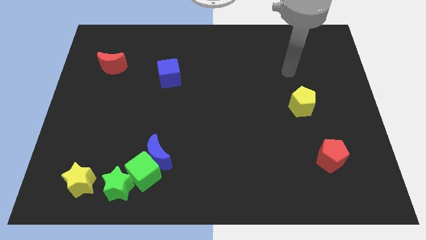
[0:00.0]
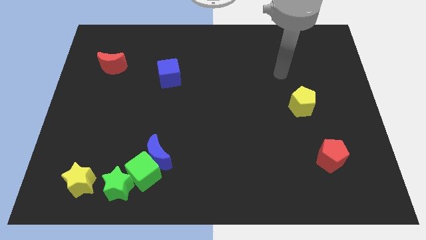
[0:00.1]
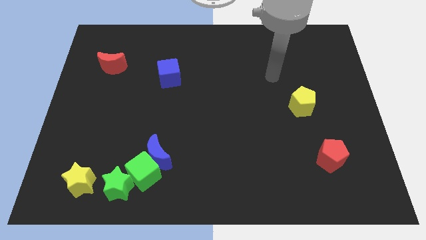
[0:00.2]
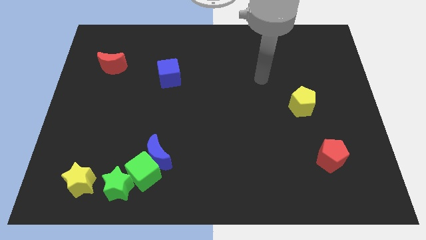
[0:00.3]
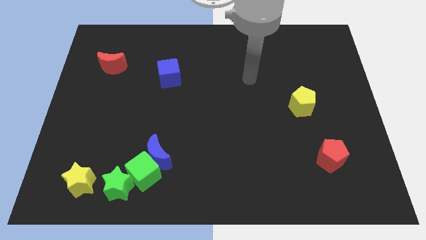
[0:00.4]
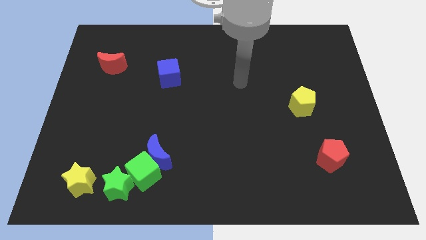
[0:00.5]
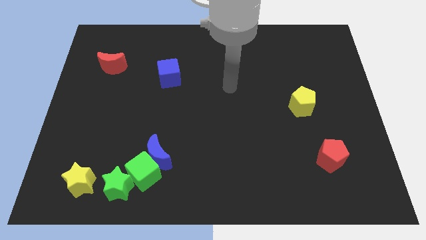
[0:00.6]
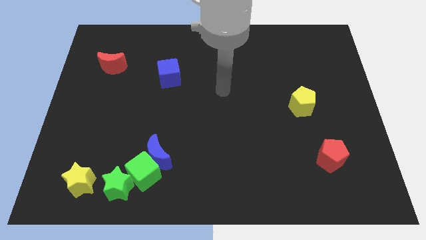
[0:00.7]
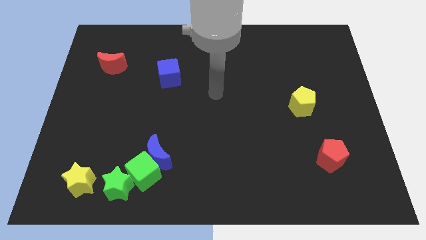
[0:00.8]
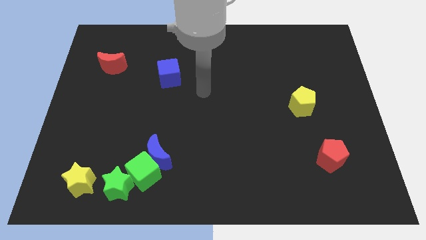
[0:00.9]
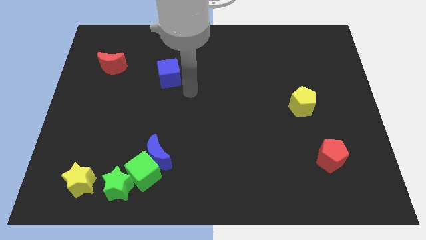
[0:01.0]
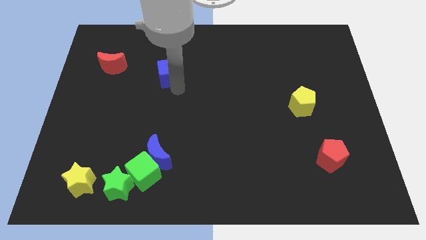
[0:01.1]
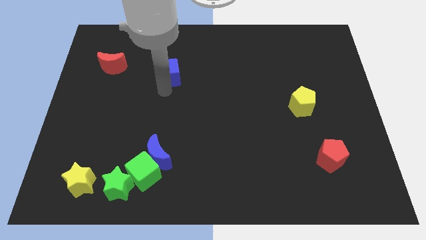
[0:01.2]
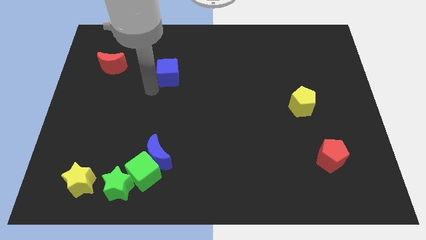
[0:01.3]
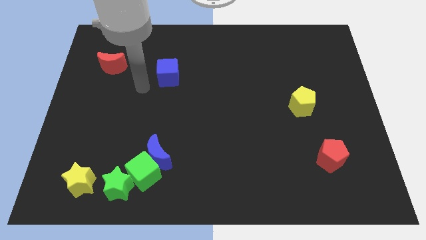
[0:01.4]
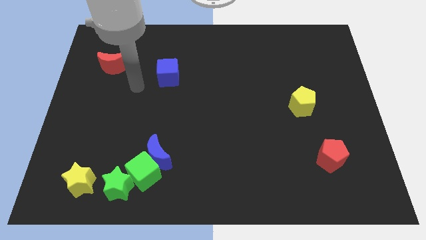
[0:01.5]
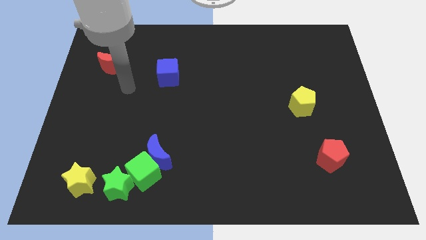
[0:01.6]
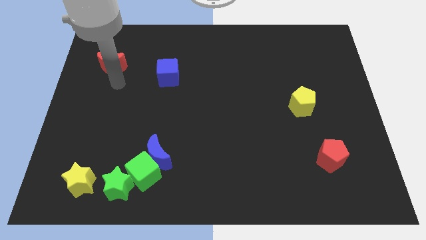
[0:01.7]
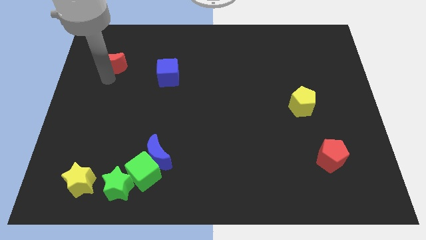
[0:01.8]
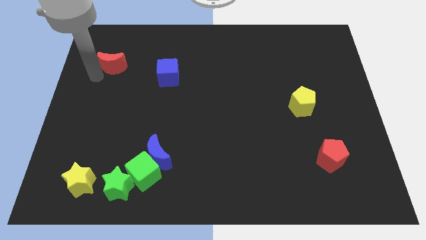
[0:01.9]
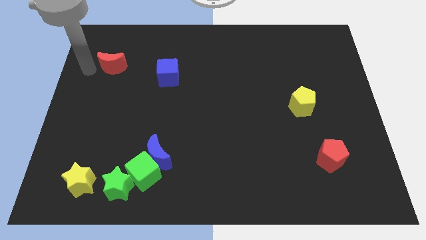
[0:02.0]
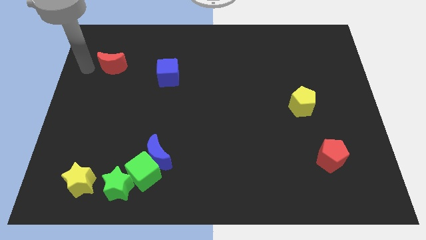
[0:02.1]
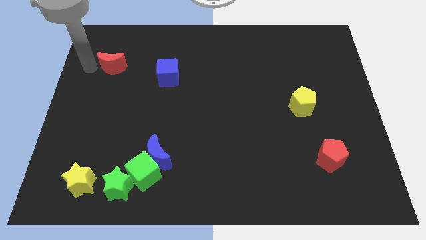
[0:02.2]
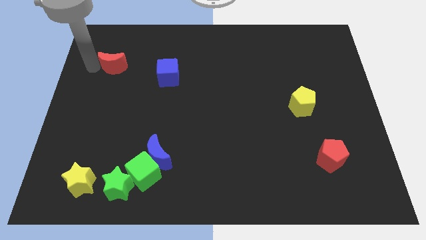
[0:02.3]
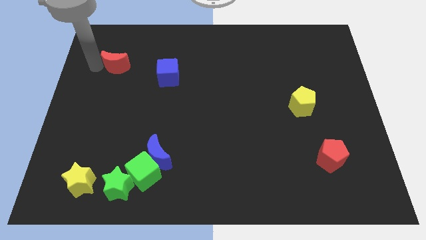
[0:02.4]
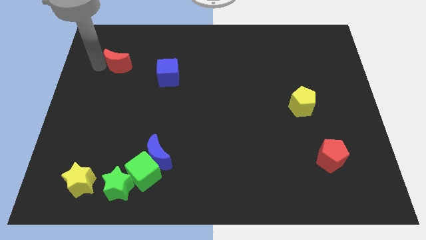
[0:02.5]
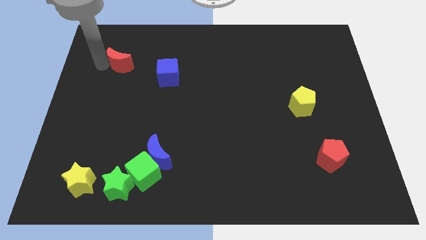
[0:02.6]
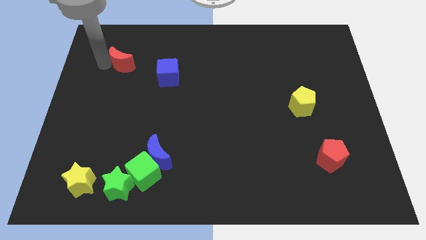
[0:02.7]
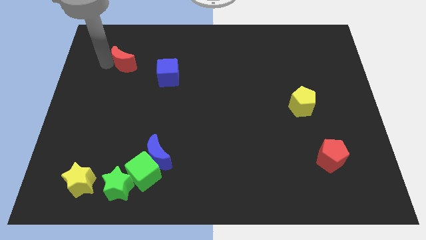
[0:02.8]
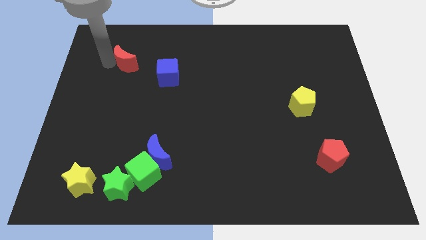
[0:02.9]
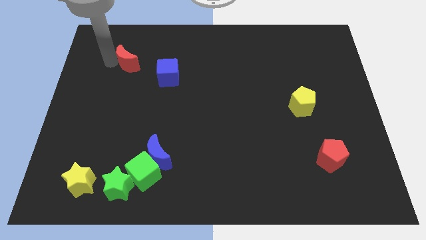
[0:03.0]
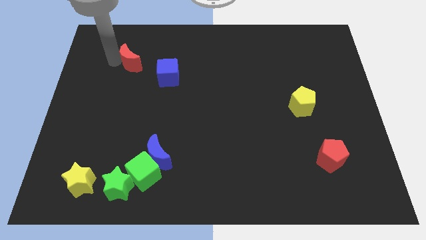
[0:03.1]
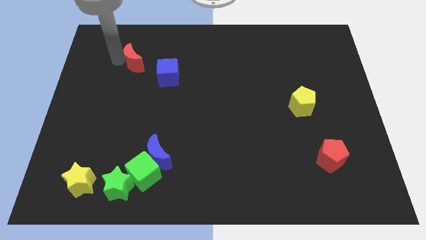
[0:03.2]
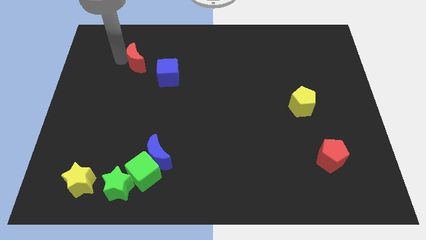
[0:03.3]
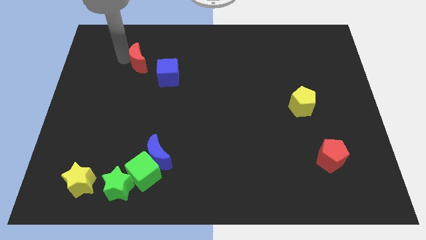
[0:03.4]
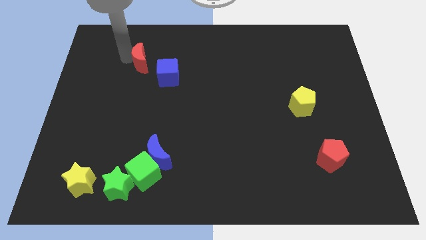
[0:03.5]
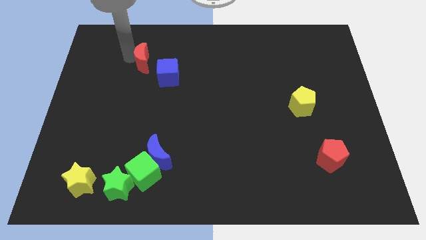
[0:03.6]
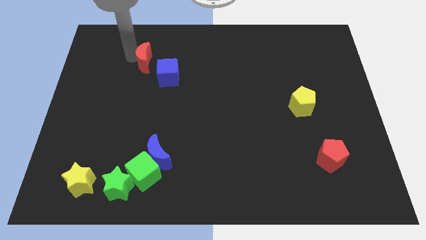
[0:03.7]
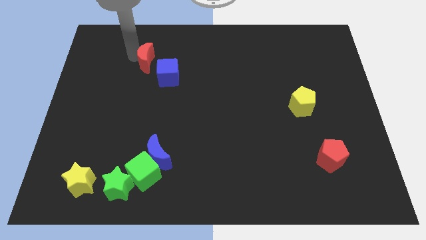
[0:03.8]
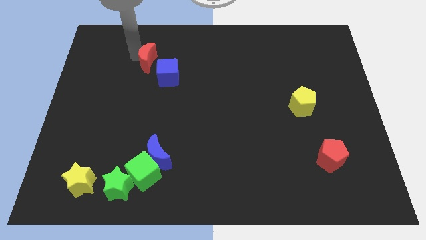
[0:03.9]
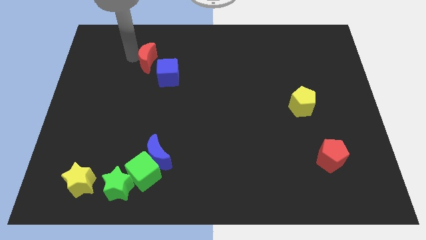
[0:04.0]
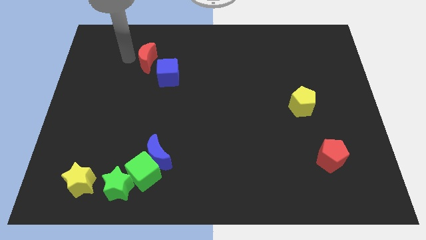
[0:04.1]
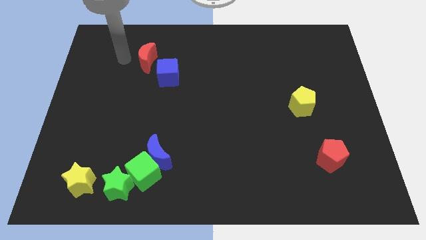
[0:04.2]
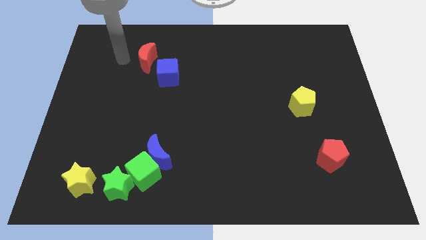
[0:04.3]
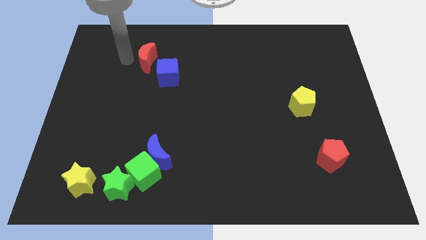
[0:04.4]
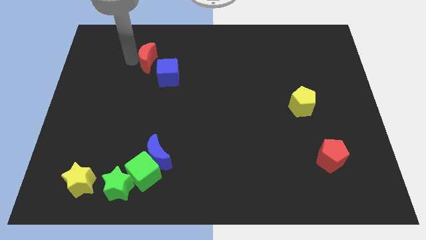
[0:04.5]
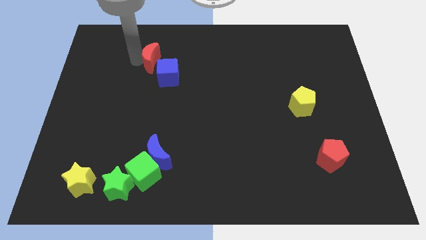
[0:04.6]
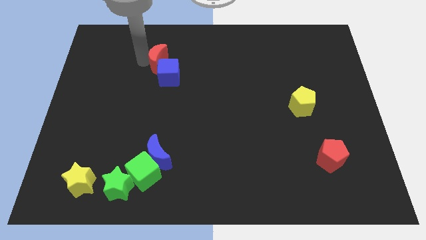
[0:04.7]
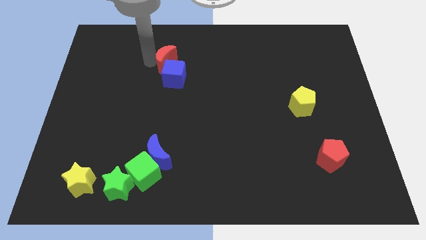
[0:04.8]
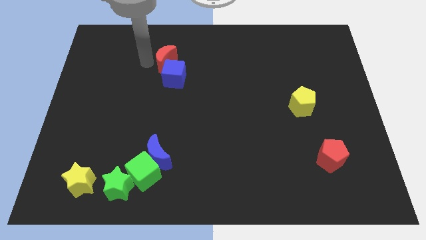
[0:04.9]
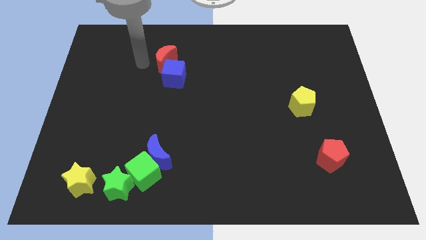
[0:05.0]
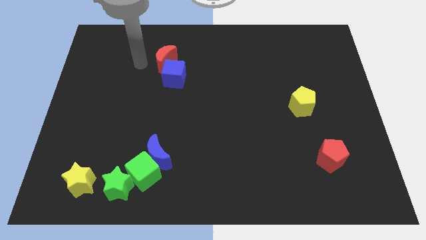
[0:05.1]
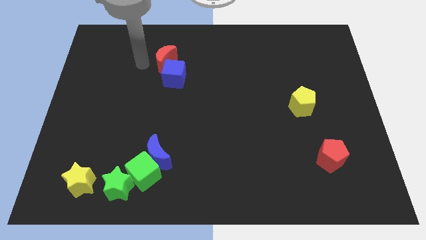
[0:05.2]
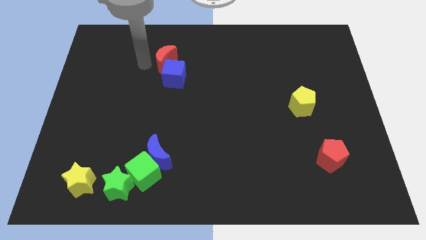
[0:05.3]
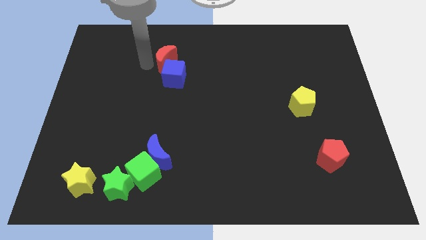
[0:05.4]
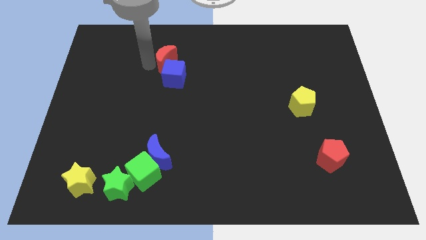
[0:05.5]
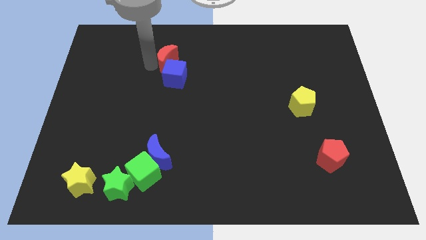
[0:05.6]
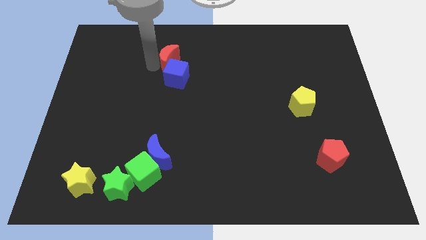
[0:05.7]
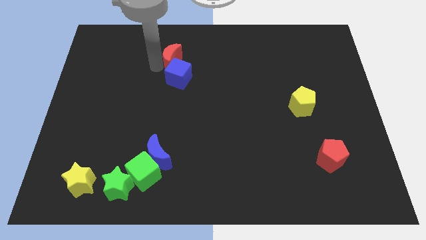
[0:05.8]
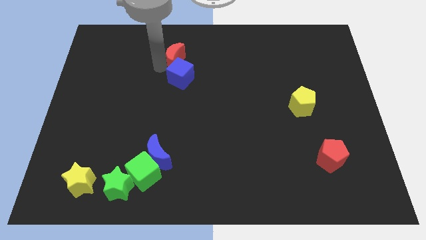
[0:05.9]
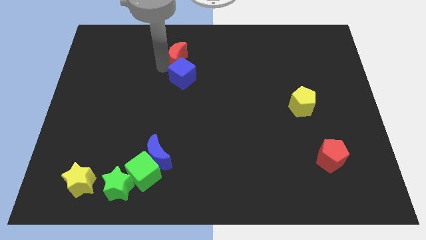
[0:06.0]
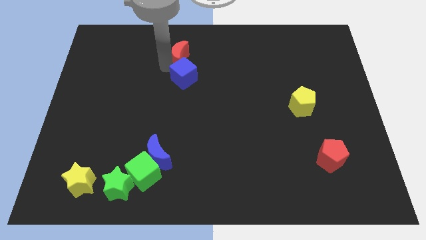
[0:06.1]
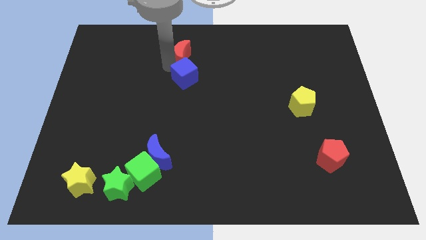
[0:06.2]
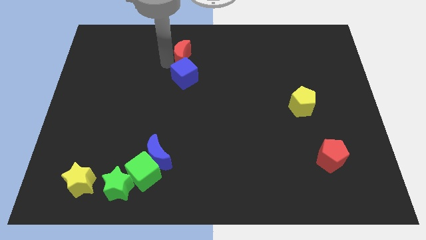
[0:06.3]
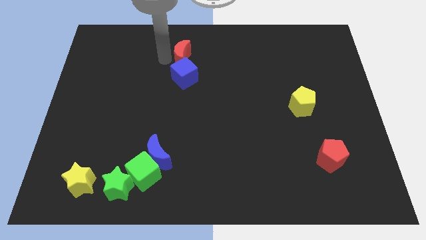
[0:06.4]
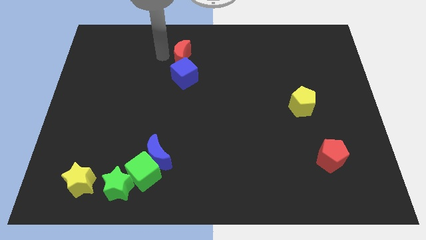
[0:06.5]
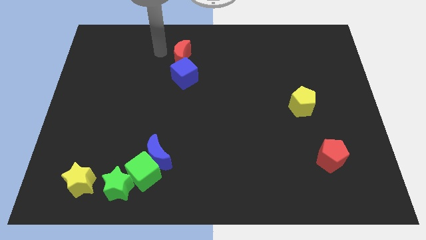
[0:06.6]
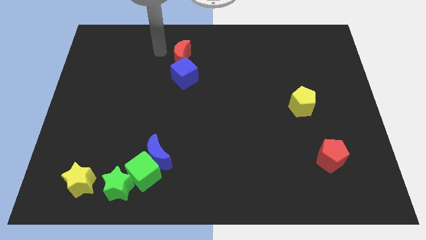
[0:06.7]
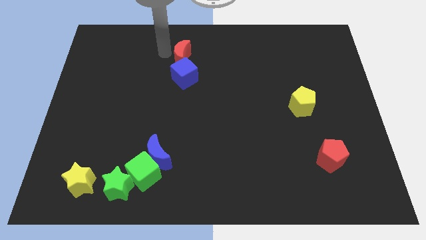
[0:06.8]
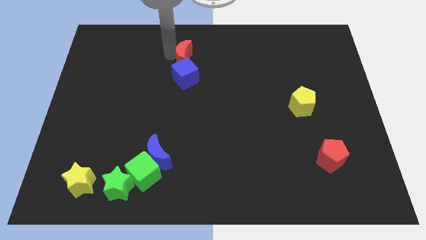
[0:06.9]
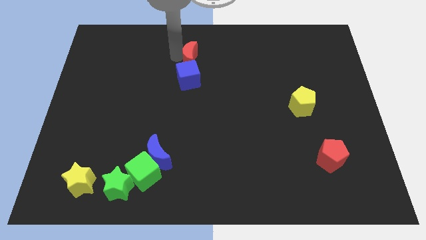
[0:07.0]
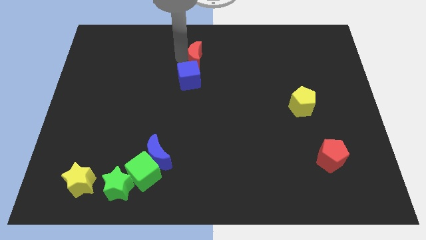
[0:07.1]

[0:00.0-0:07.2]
push the red moon right

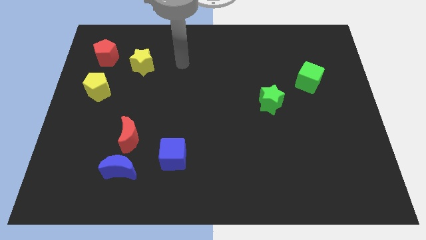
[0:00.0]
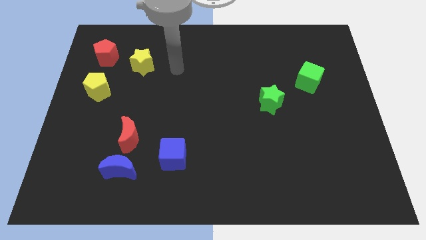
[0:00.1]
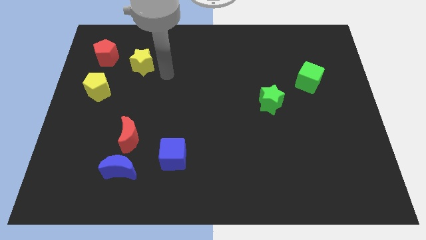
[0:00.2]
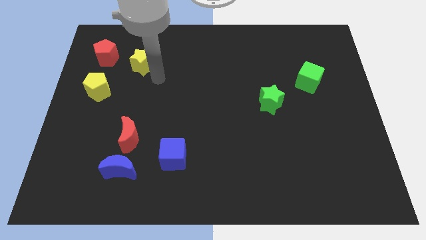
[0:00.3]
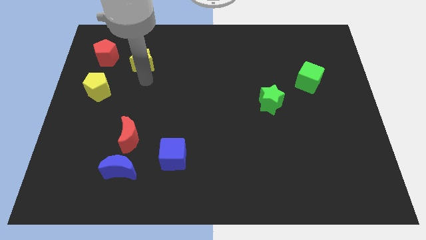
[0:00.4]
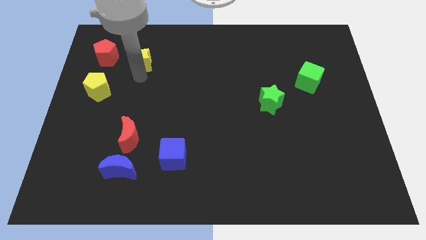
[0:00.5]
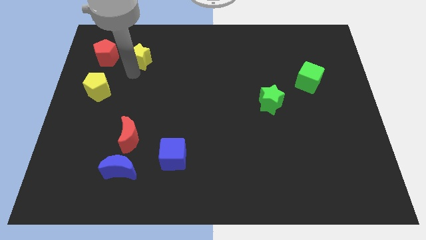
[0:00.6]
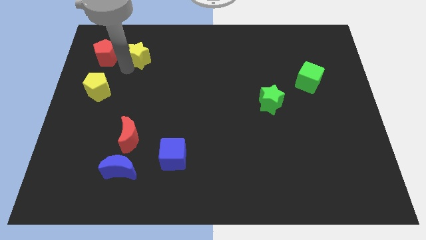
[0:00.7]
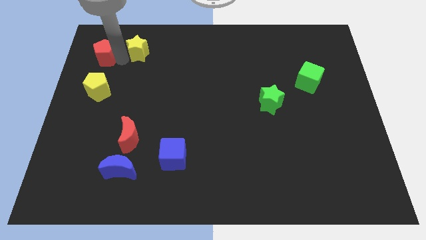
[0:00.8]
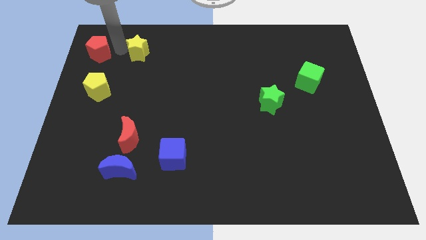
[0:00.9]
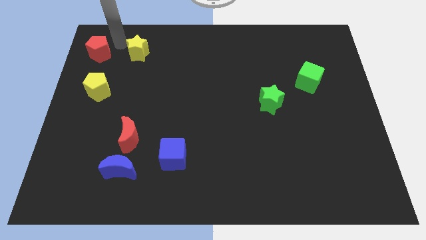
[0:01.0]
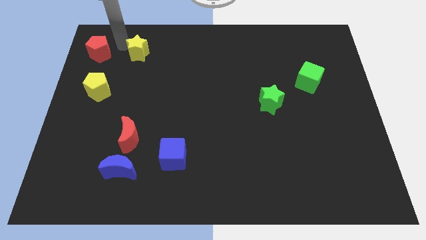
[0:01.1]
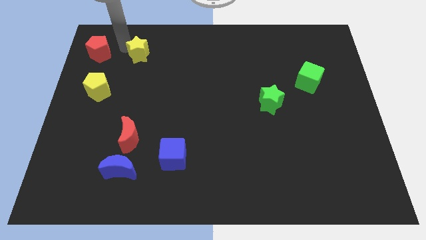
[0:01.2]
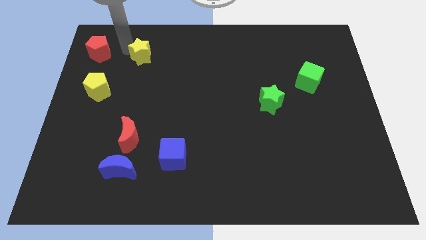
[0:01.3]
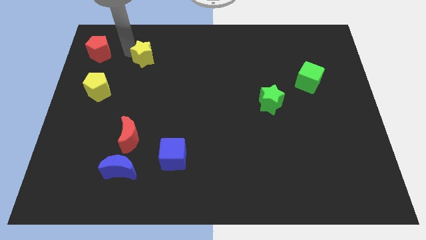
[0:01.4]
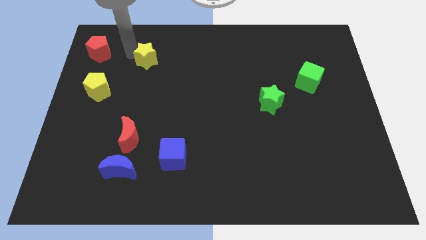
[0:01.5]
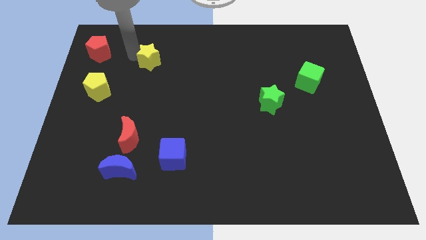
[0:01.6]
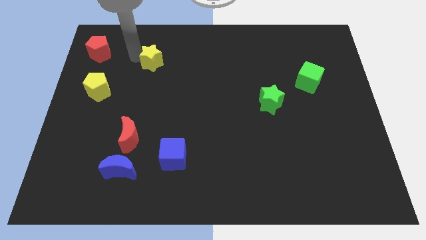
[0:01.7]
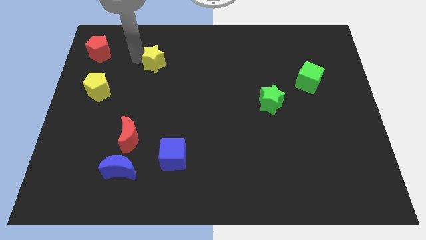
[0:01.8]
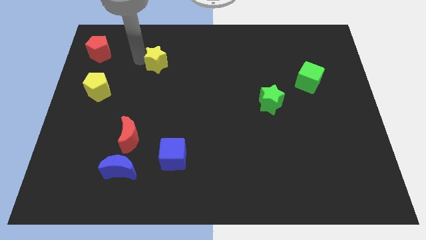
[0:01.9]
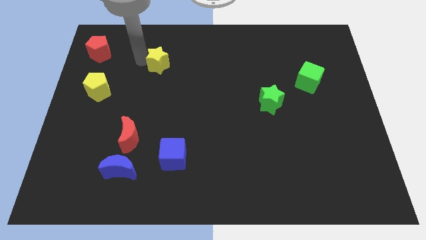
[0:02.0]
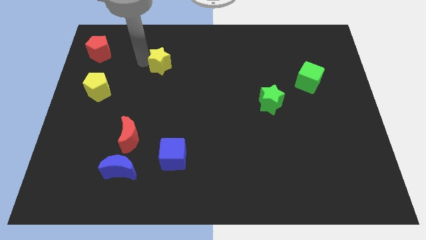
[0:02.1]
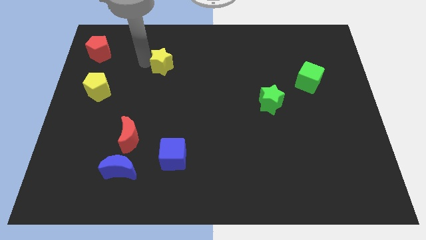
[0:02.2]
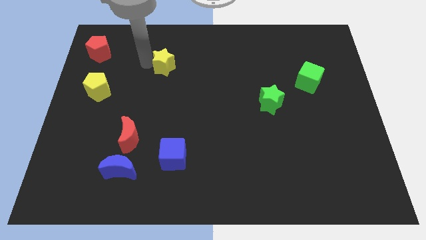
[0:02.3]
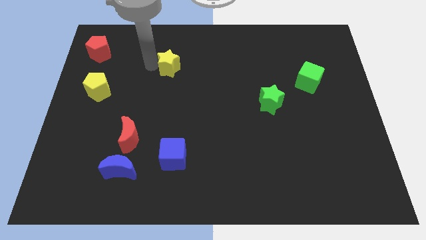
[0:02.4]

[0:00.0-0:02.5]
slightly push the yellow star to the right
